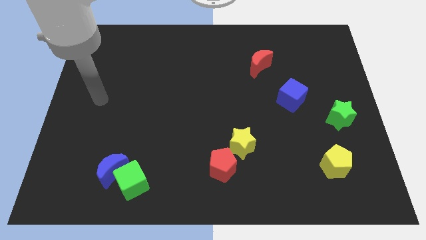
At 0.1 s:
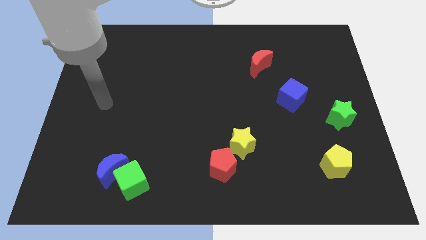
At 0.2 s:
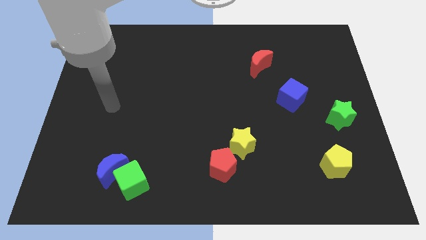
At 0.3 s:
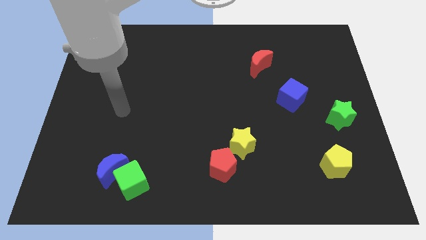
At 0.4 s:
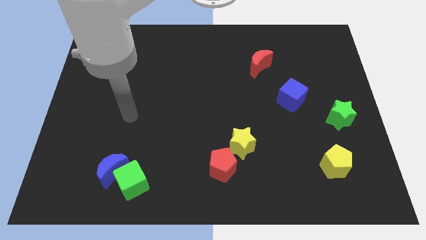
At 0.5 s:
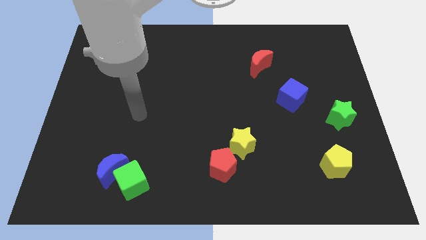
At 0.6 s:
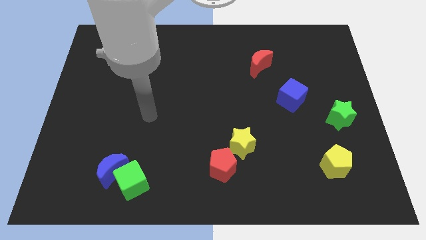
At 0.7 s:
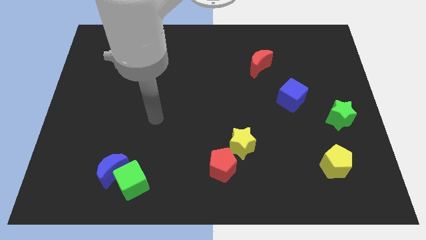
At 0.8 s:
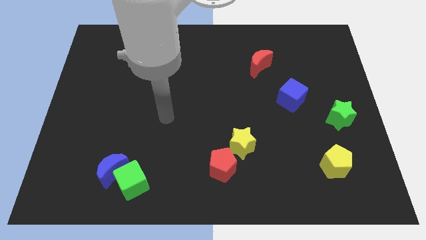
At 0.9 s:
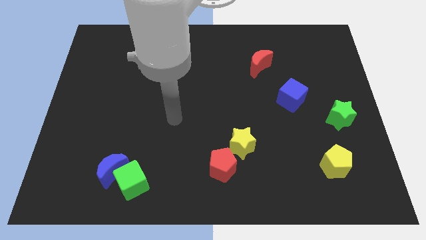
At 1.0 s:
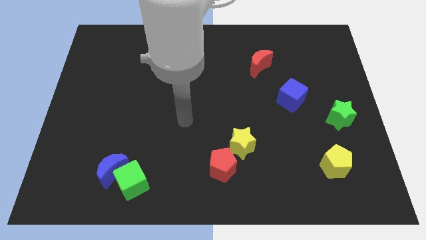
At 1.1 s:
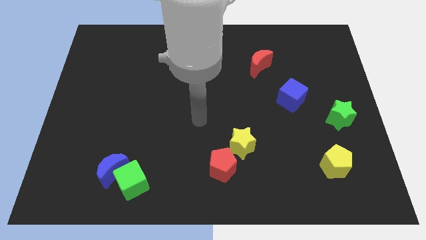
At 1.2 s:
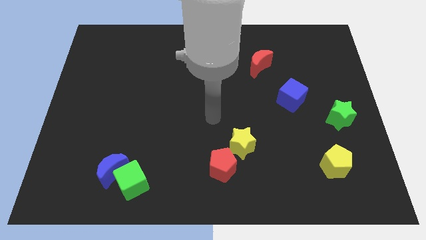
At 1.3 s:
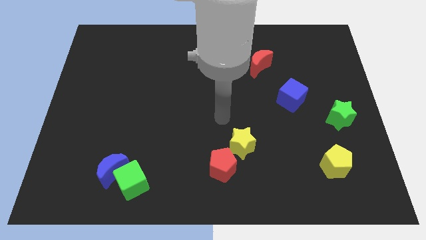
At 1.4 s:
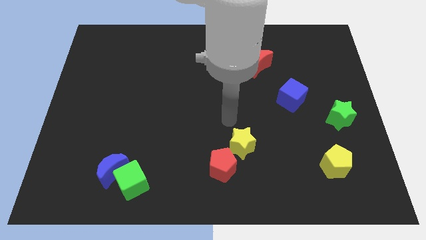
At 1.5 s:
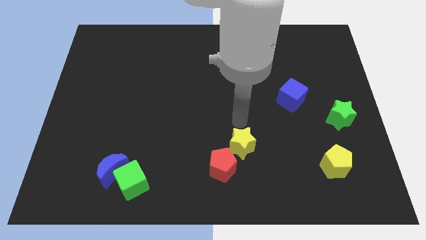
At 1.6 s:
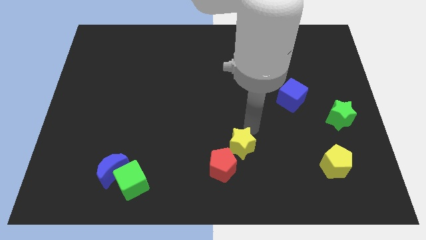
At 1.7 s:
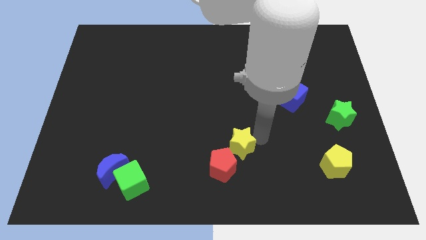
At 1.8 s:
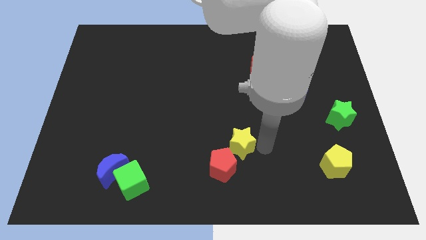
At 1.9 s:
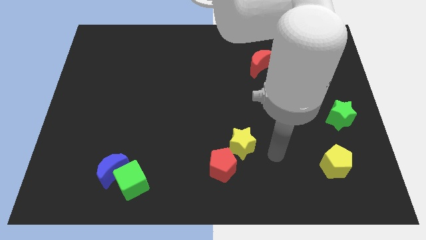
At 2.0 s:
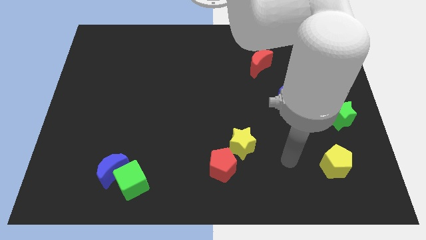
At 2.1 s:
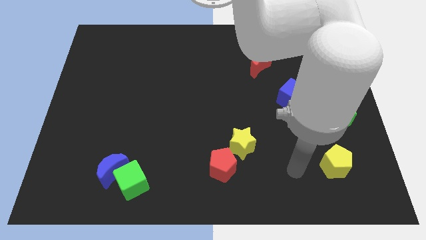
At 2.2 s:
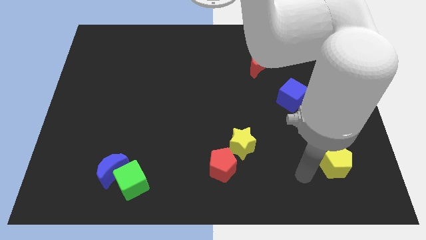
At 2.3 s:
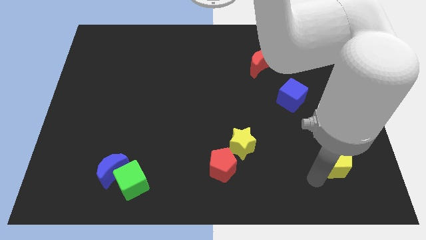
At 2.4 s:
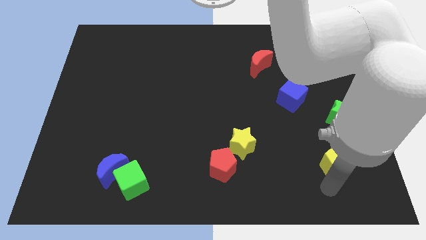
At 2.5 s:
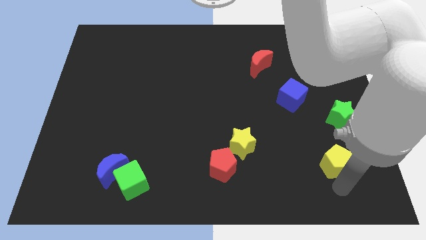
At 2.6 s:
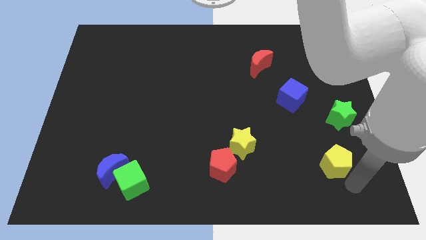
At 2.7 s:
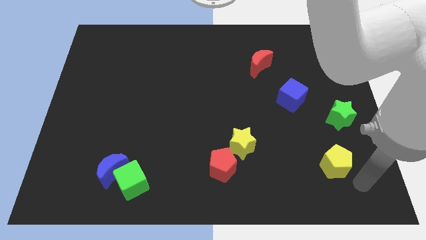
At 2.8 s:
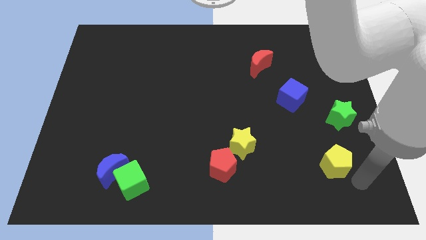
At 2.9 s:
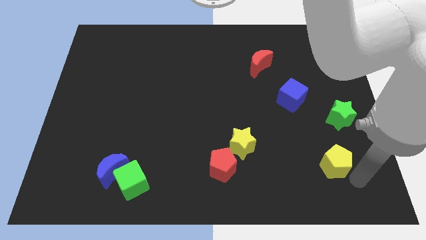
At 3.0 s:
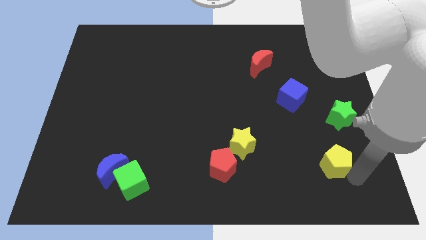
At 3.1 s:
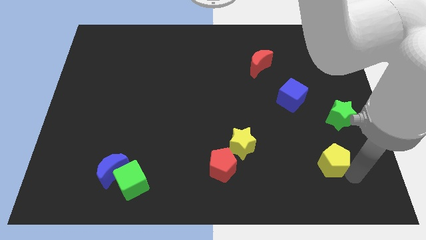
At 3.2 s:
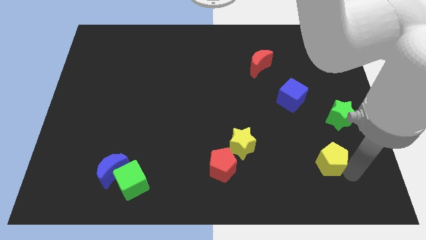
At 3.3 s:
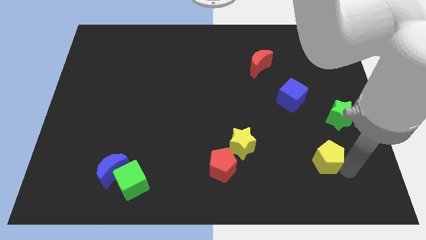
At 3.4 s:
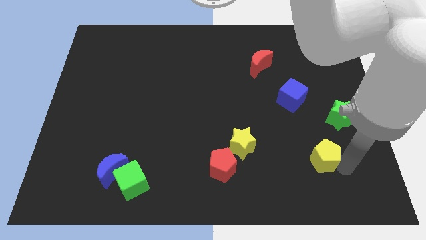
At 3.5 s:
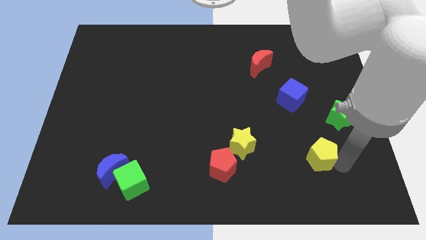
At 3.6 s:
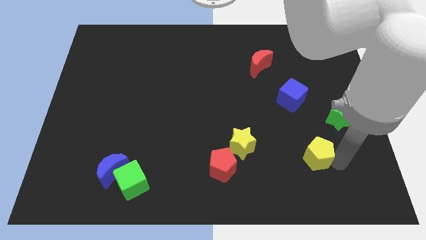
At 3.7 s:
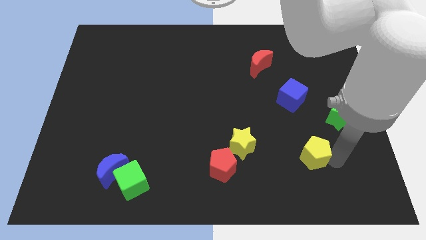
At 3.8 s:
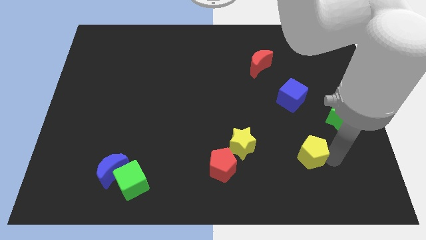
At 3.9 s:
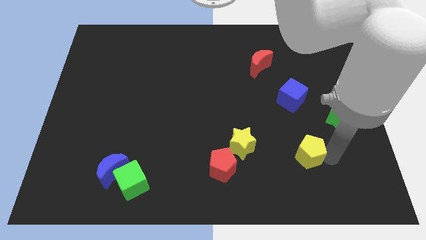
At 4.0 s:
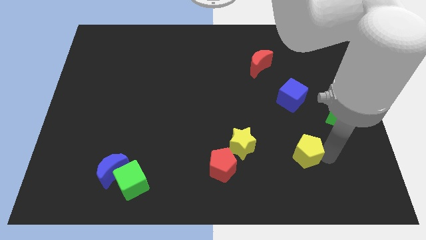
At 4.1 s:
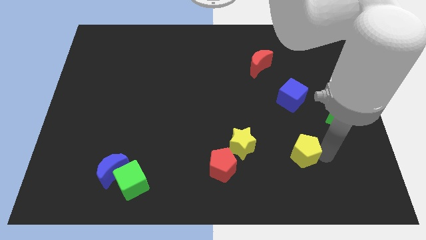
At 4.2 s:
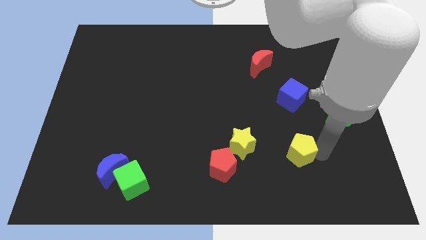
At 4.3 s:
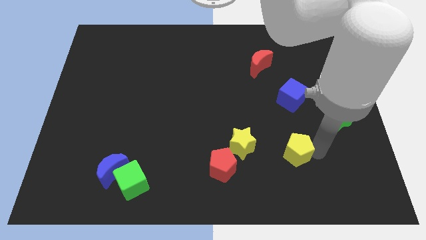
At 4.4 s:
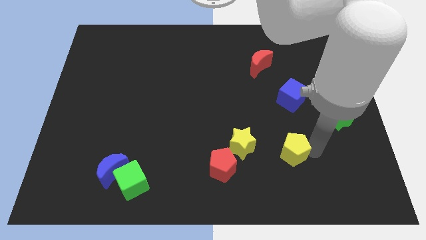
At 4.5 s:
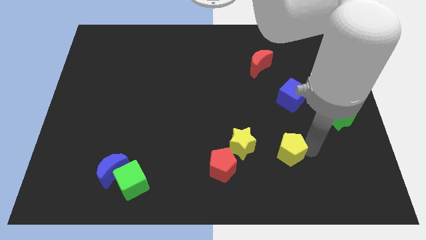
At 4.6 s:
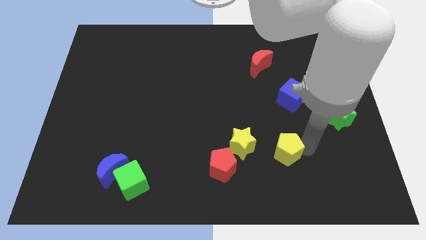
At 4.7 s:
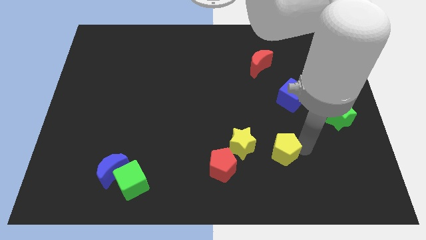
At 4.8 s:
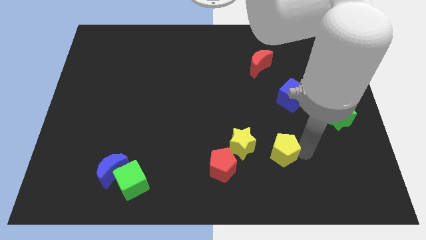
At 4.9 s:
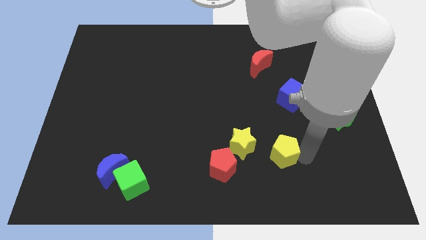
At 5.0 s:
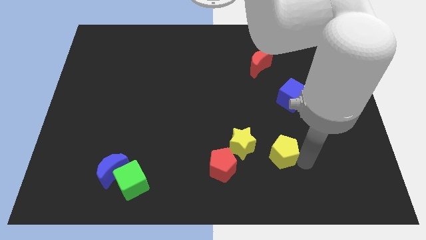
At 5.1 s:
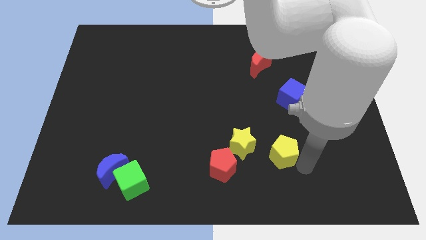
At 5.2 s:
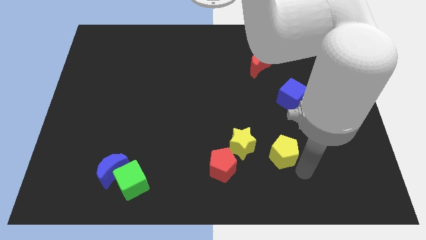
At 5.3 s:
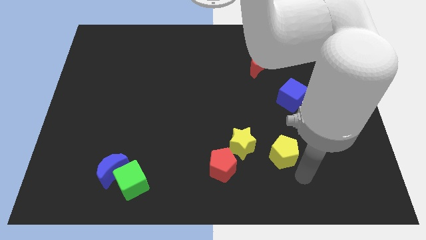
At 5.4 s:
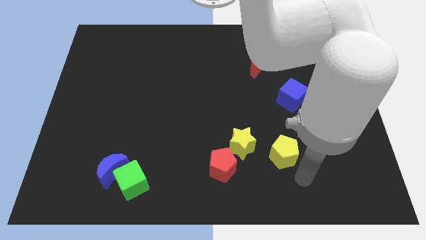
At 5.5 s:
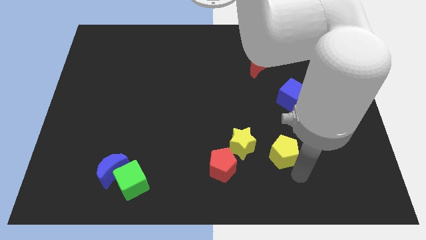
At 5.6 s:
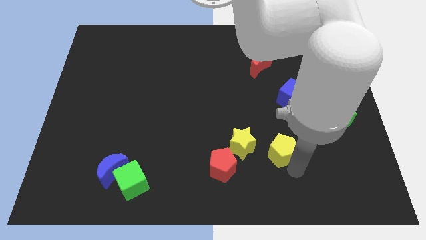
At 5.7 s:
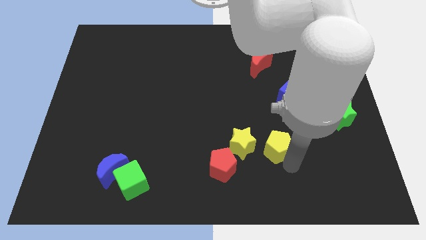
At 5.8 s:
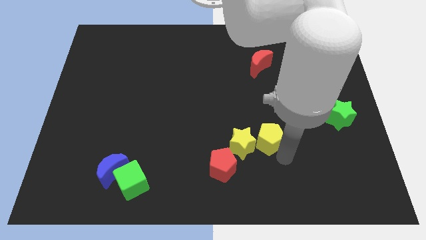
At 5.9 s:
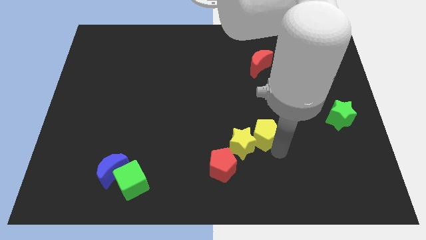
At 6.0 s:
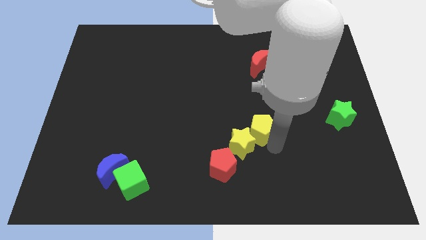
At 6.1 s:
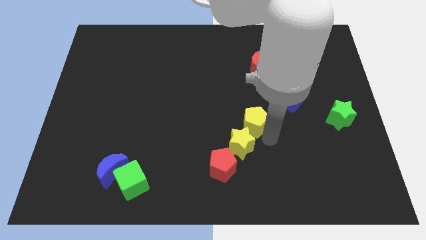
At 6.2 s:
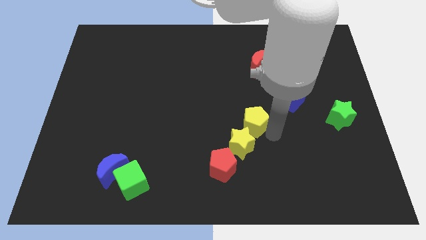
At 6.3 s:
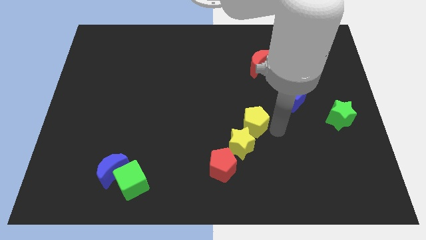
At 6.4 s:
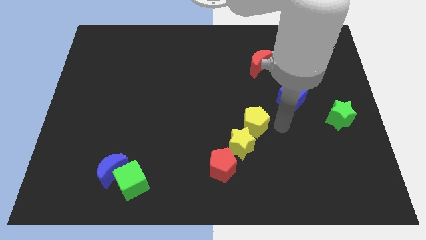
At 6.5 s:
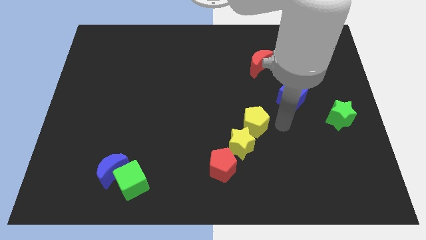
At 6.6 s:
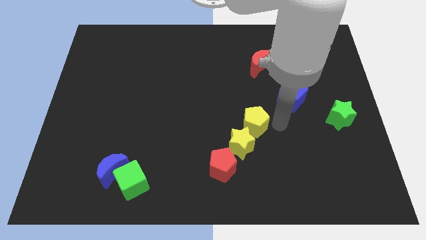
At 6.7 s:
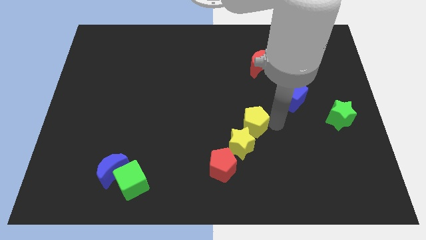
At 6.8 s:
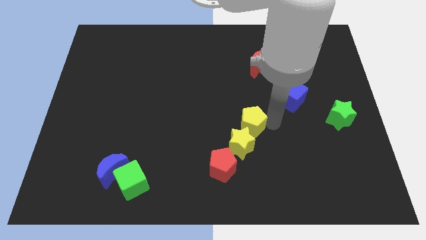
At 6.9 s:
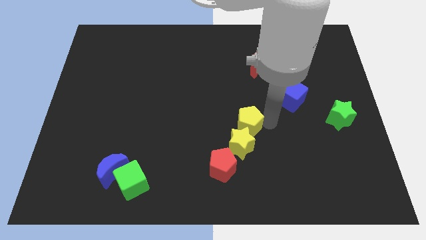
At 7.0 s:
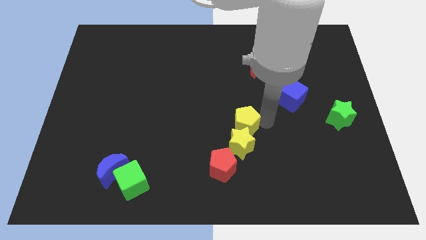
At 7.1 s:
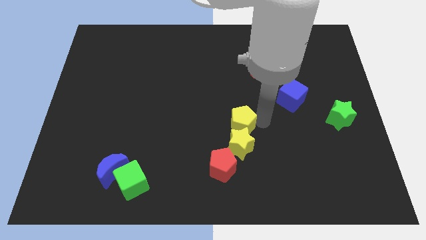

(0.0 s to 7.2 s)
put the yellow pentagon above the red pentagon

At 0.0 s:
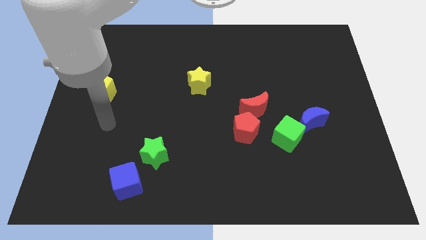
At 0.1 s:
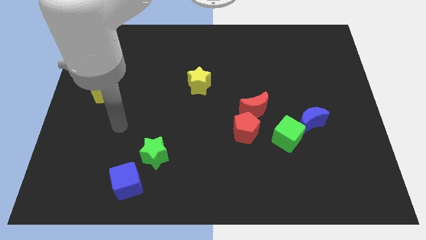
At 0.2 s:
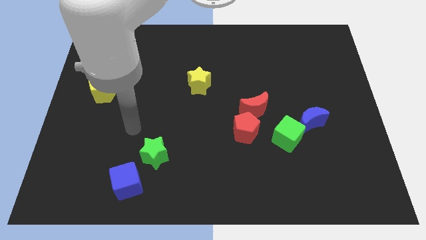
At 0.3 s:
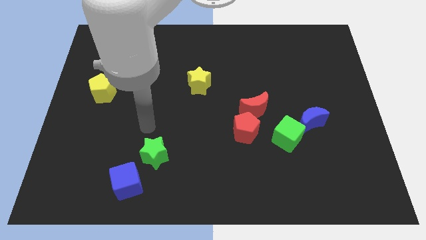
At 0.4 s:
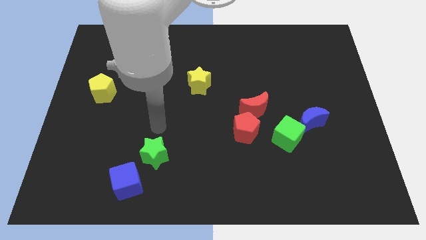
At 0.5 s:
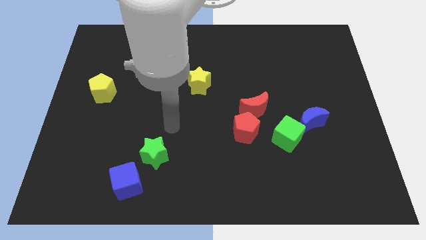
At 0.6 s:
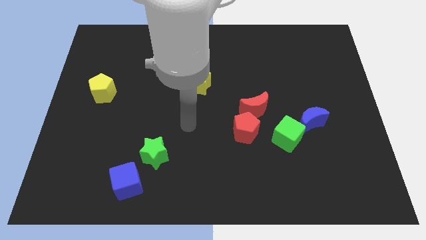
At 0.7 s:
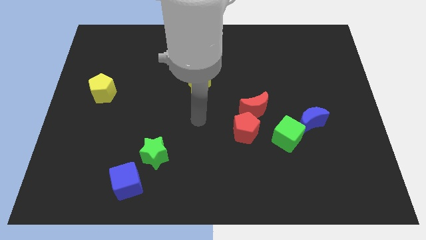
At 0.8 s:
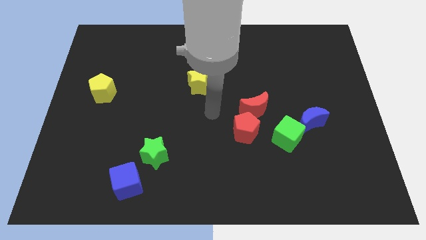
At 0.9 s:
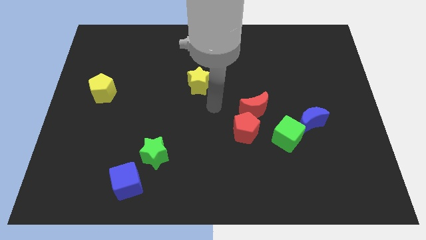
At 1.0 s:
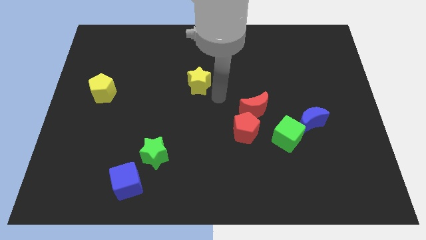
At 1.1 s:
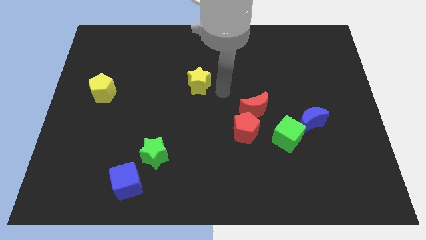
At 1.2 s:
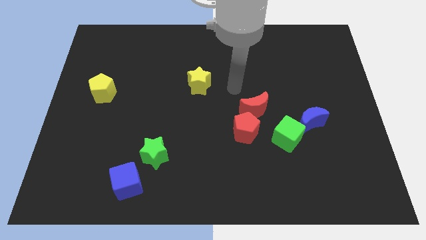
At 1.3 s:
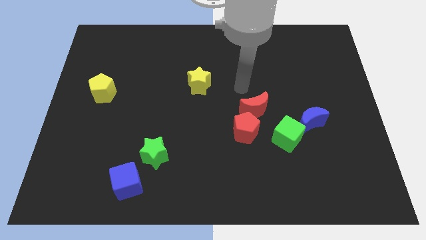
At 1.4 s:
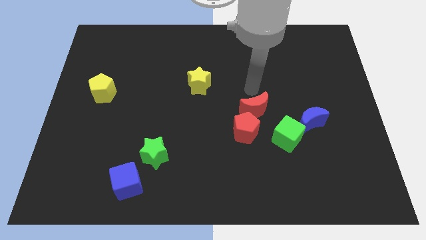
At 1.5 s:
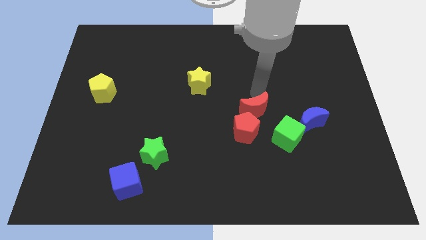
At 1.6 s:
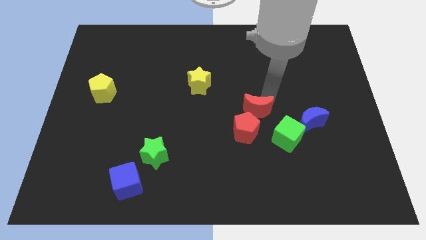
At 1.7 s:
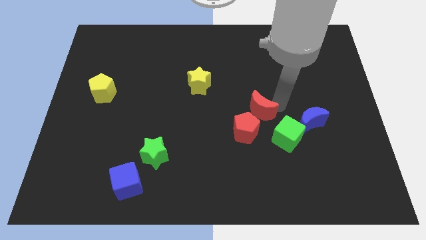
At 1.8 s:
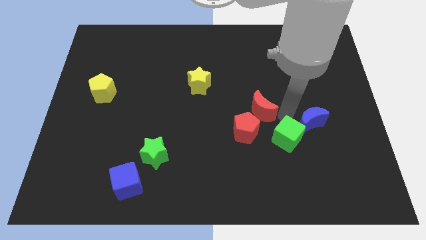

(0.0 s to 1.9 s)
push the green cube to the bottom of the red moon
